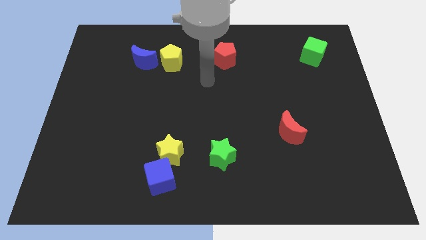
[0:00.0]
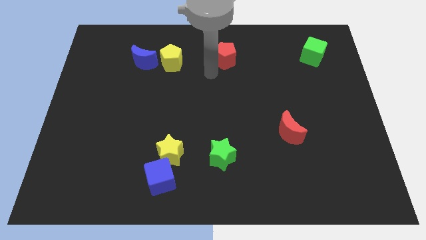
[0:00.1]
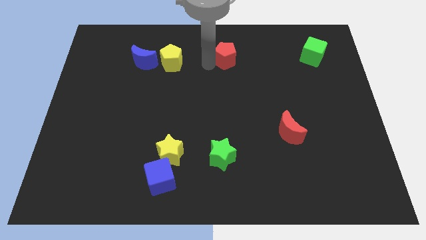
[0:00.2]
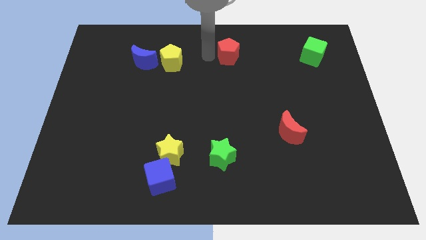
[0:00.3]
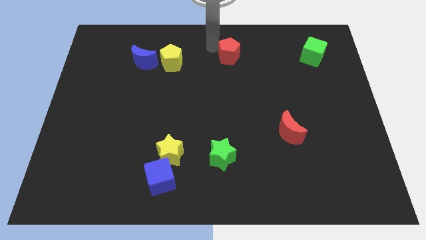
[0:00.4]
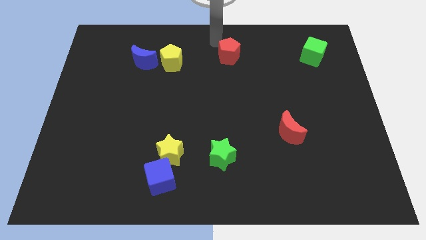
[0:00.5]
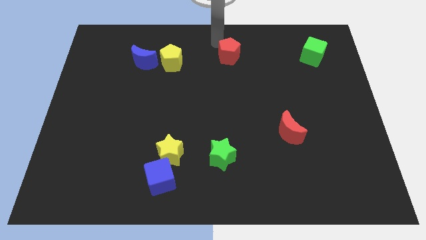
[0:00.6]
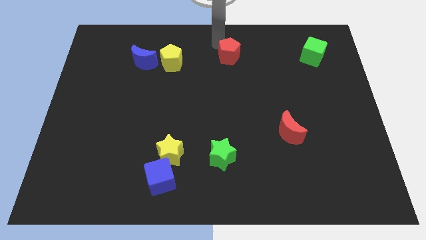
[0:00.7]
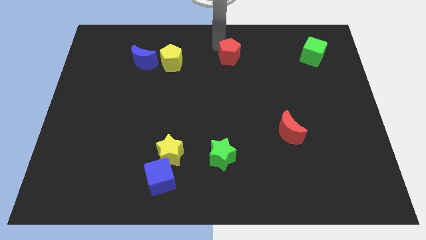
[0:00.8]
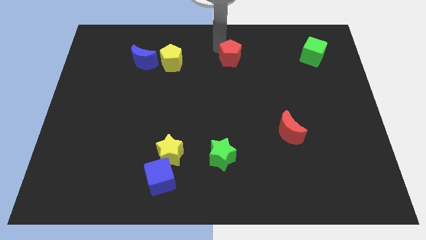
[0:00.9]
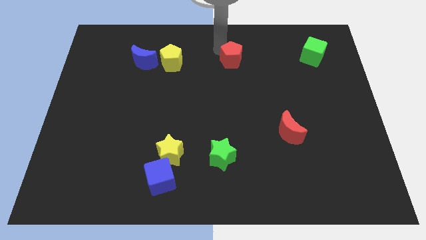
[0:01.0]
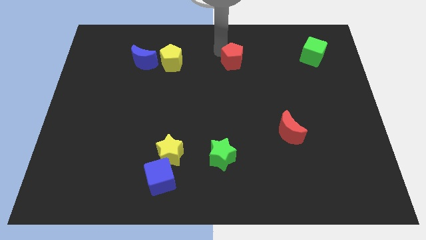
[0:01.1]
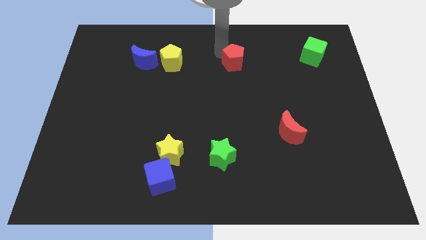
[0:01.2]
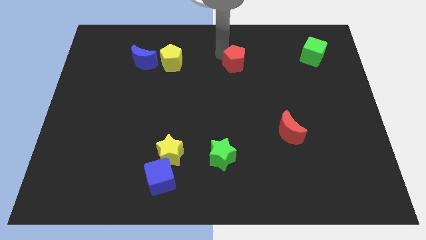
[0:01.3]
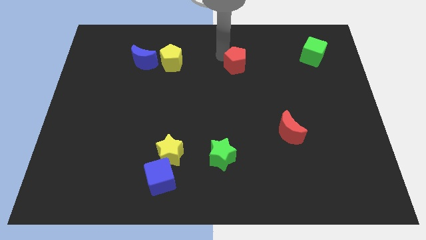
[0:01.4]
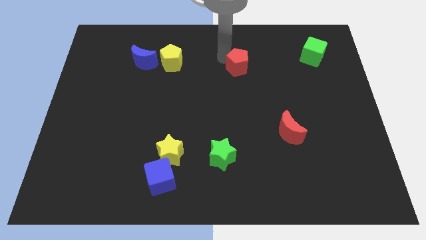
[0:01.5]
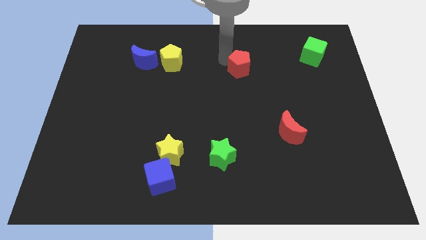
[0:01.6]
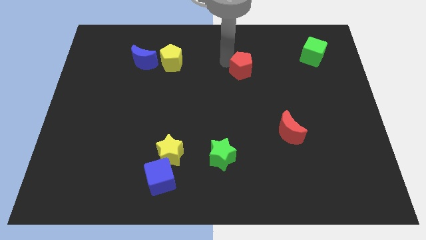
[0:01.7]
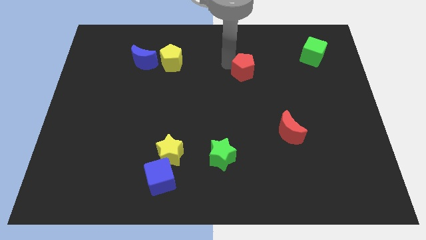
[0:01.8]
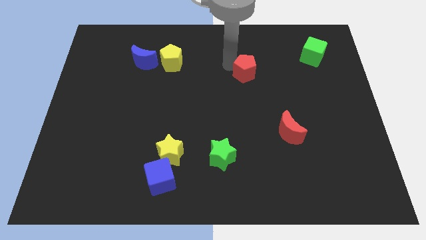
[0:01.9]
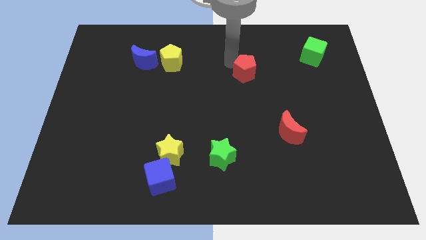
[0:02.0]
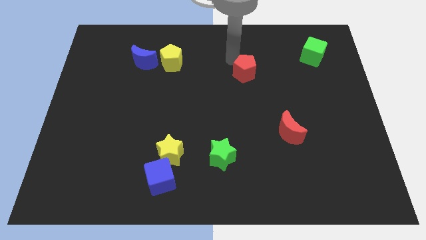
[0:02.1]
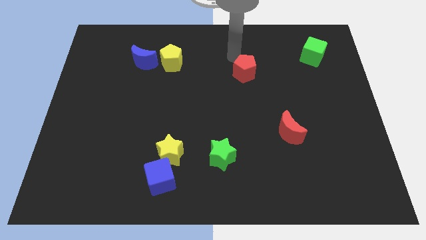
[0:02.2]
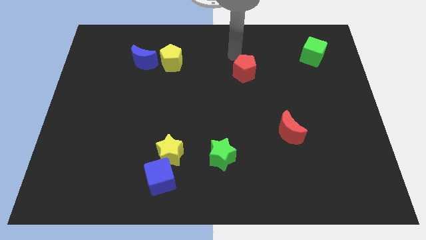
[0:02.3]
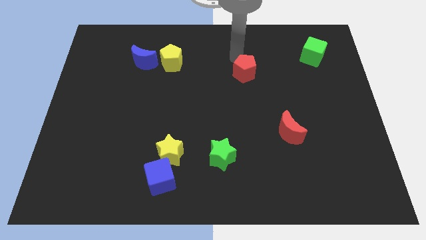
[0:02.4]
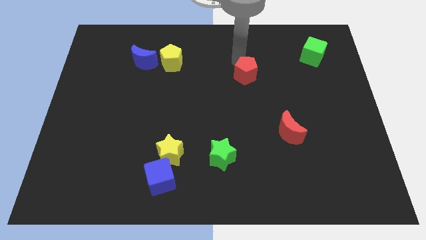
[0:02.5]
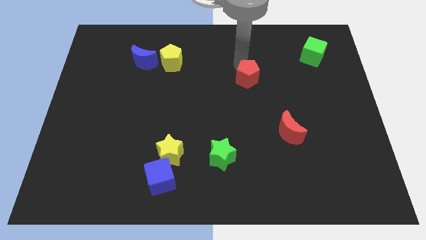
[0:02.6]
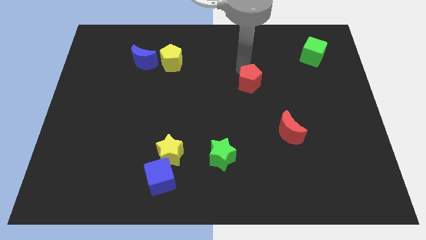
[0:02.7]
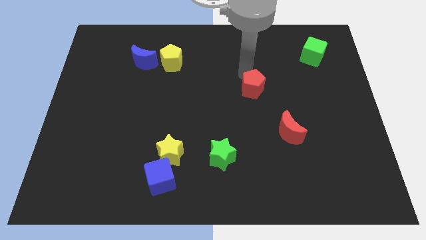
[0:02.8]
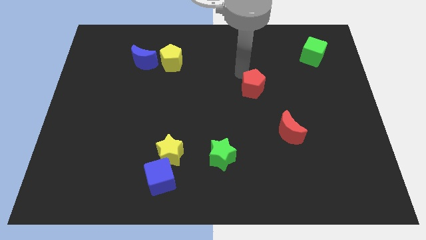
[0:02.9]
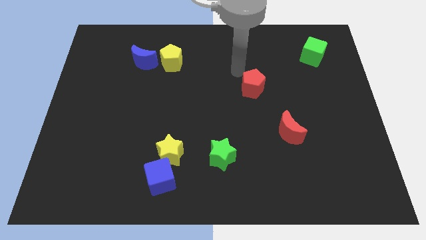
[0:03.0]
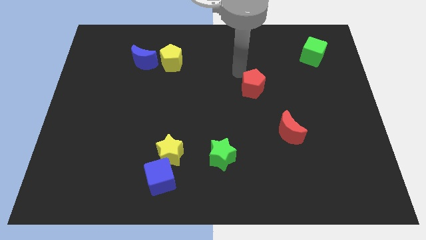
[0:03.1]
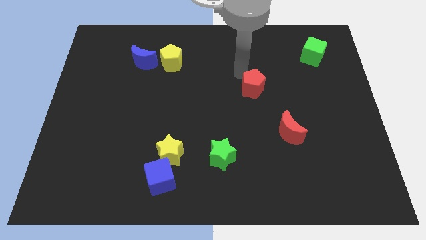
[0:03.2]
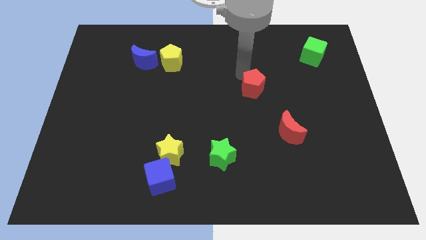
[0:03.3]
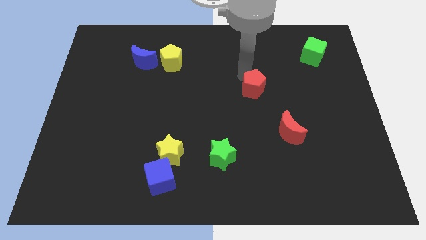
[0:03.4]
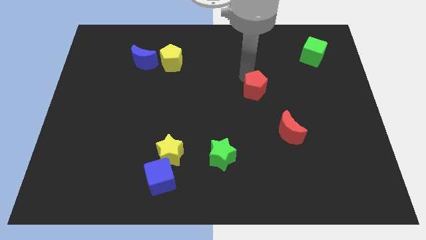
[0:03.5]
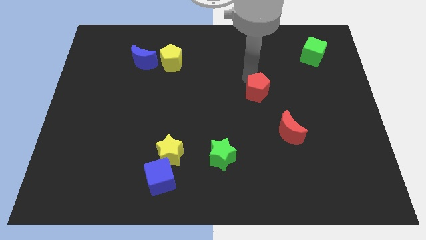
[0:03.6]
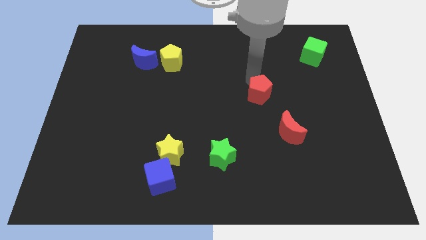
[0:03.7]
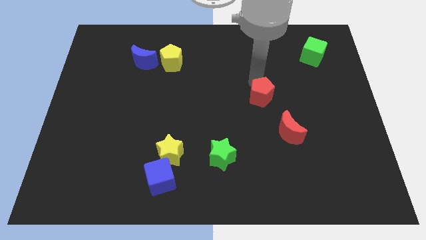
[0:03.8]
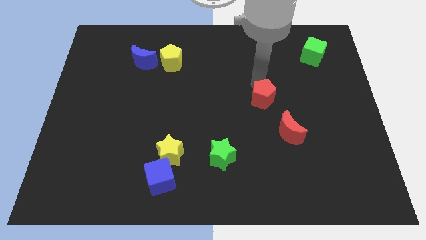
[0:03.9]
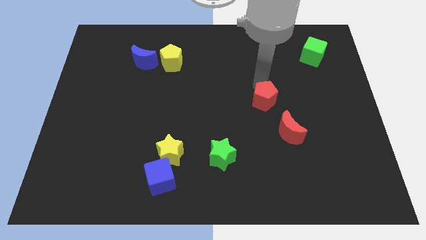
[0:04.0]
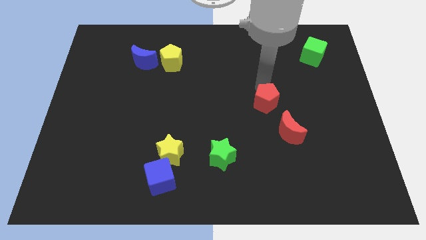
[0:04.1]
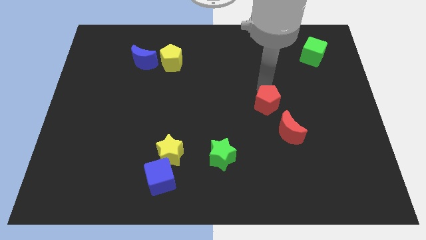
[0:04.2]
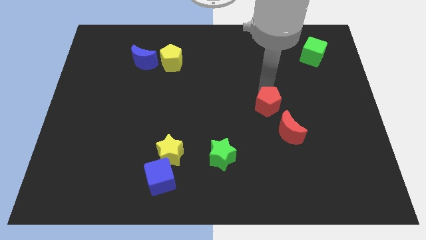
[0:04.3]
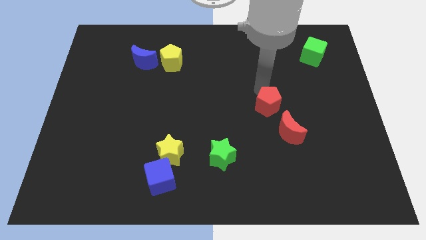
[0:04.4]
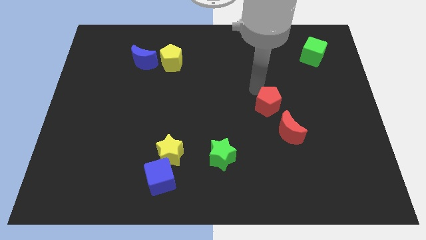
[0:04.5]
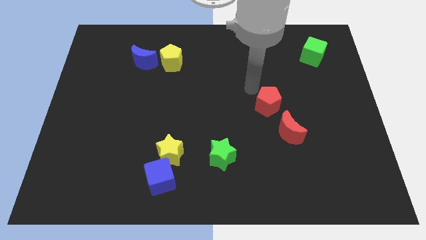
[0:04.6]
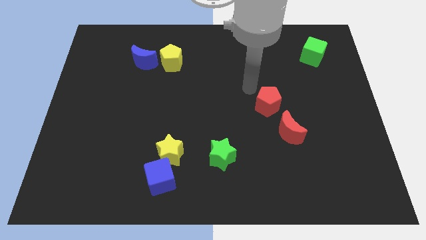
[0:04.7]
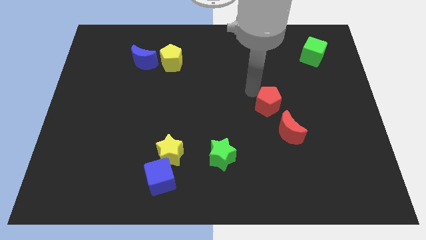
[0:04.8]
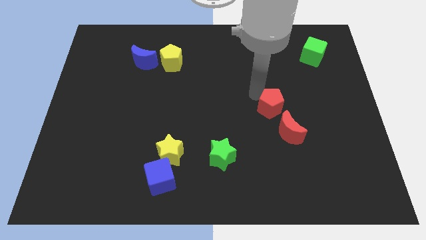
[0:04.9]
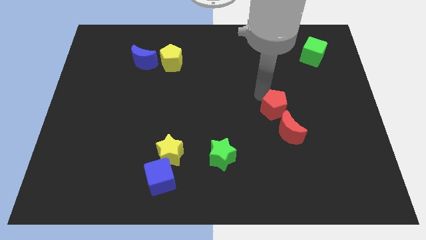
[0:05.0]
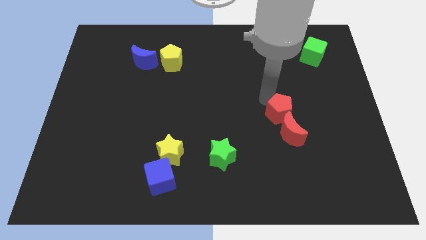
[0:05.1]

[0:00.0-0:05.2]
put the red pentagon to the red moon

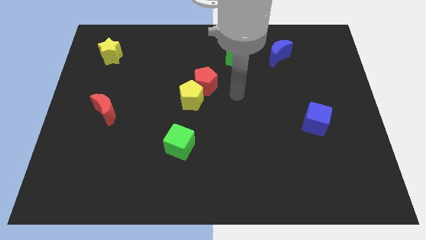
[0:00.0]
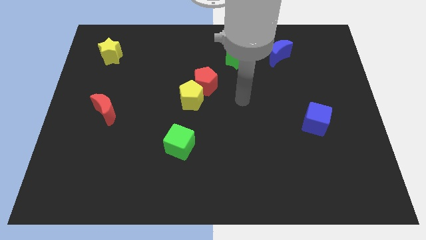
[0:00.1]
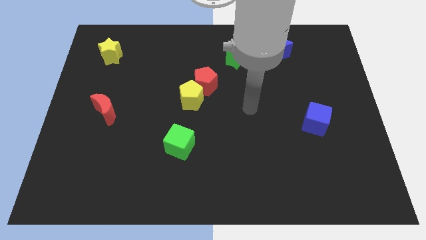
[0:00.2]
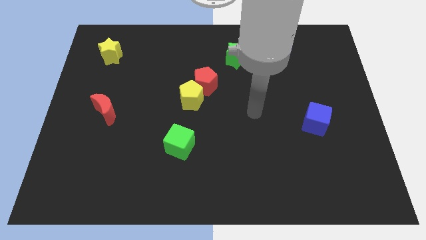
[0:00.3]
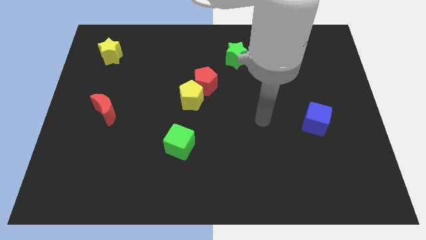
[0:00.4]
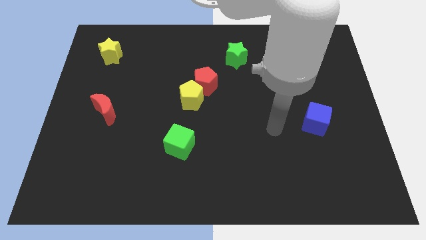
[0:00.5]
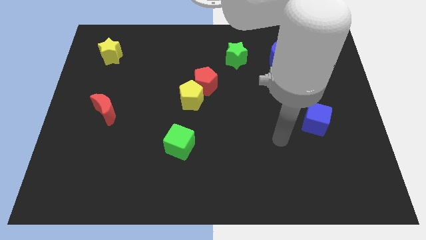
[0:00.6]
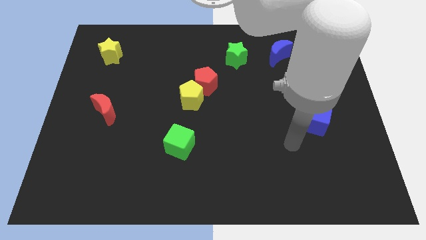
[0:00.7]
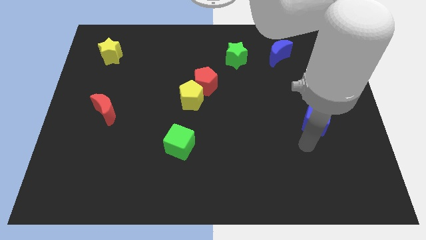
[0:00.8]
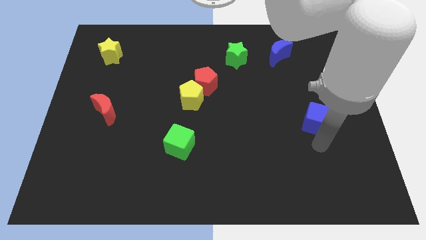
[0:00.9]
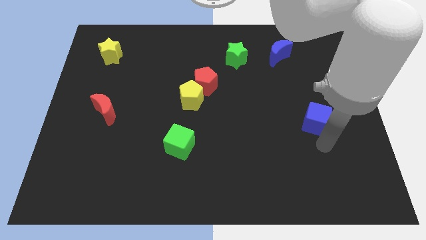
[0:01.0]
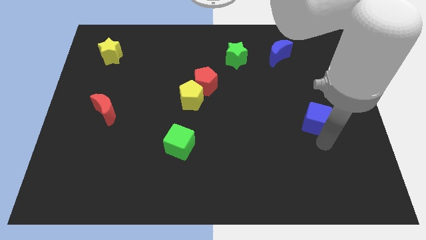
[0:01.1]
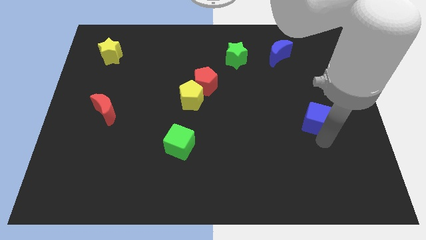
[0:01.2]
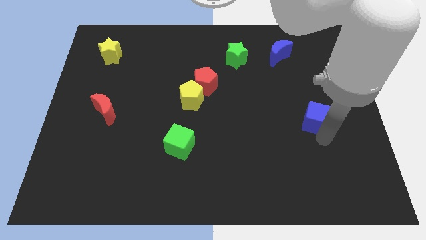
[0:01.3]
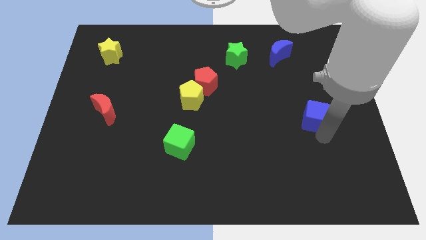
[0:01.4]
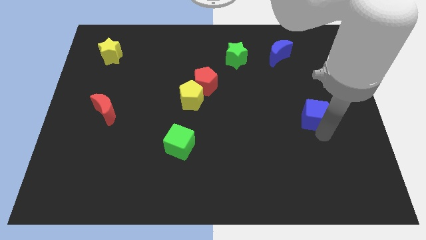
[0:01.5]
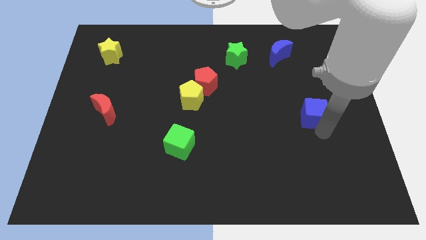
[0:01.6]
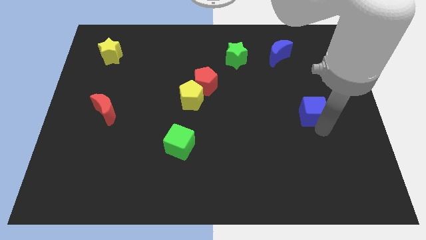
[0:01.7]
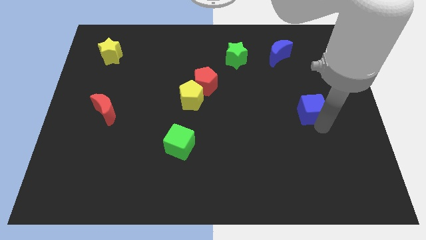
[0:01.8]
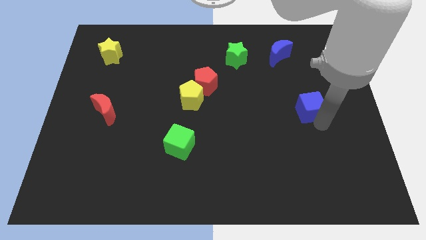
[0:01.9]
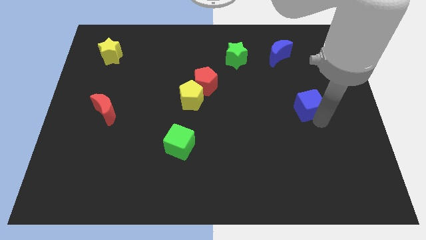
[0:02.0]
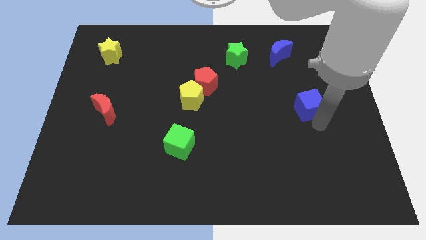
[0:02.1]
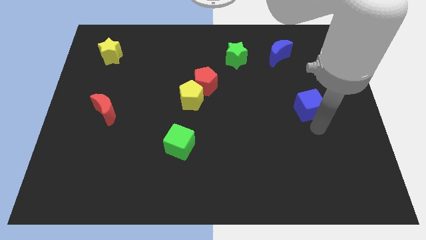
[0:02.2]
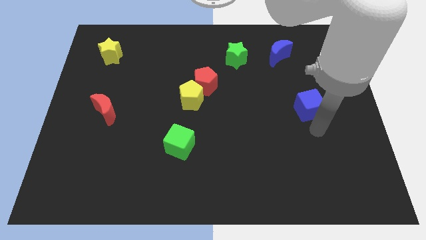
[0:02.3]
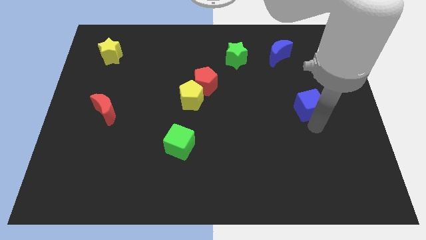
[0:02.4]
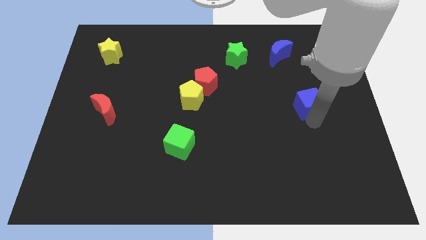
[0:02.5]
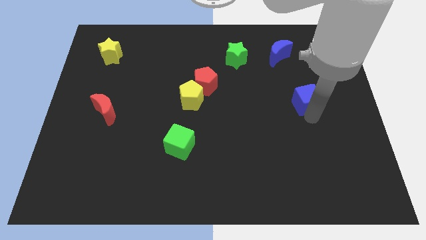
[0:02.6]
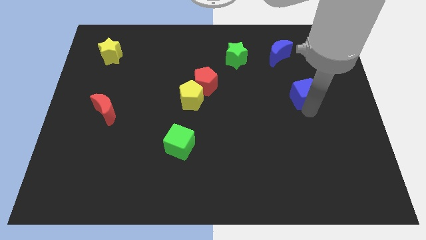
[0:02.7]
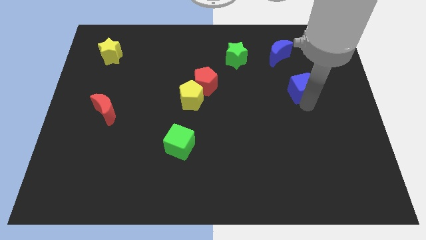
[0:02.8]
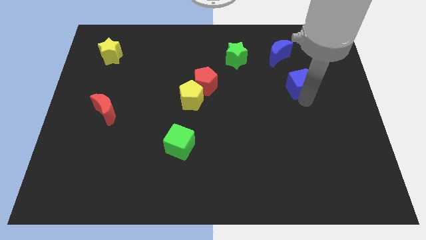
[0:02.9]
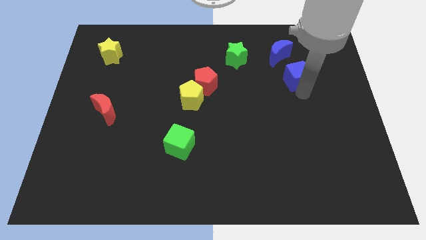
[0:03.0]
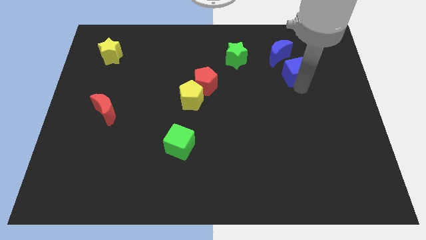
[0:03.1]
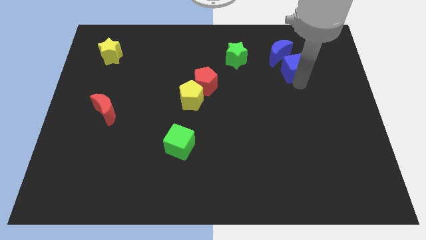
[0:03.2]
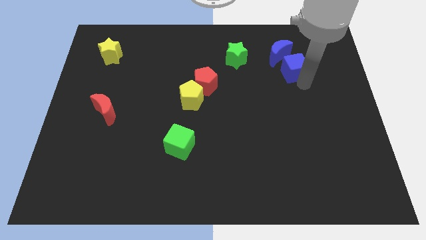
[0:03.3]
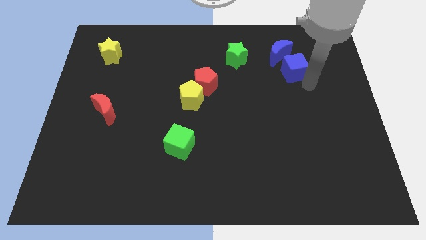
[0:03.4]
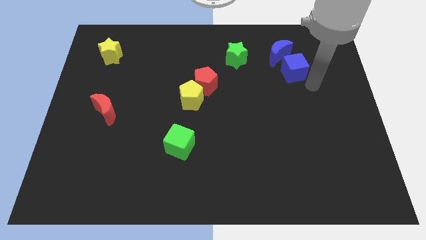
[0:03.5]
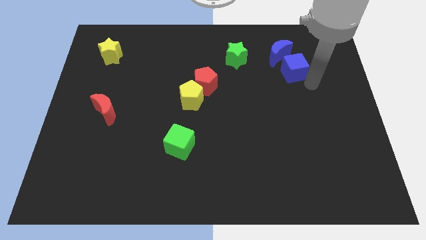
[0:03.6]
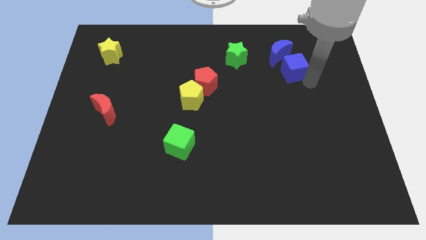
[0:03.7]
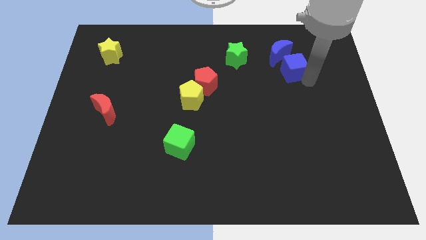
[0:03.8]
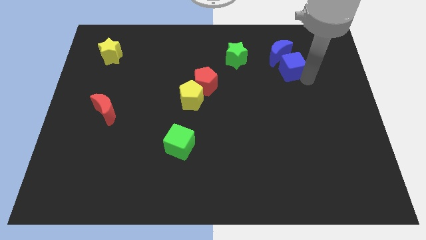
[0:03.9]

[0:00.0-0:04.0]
slide the blue cube towards the blue moon
